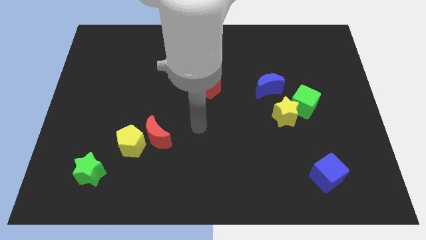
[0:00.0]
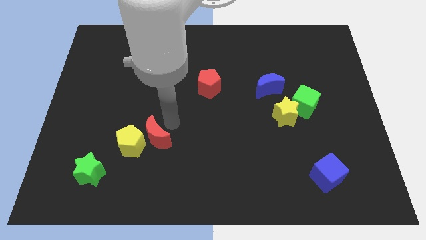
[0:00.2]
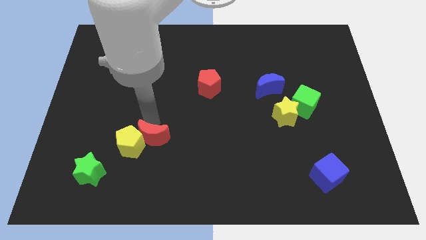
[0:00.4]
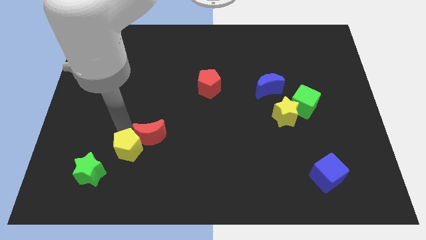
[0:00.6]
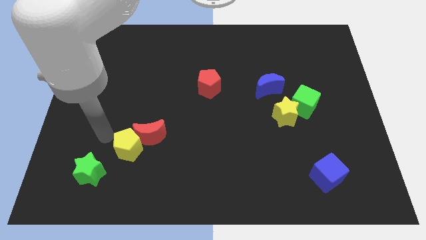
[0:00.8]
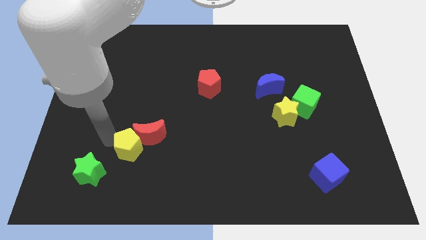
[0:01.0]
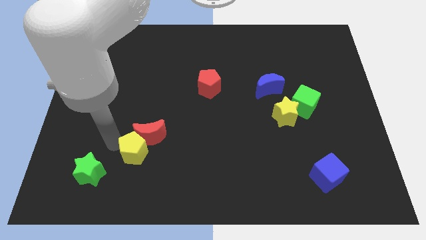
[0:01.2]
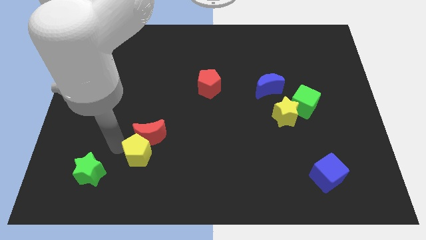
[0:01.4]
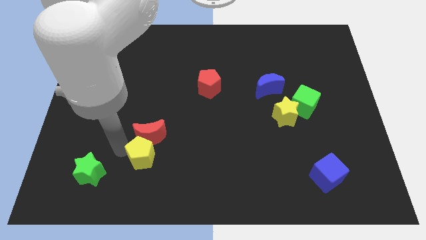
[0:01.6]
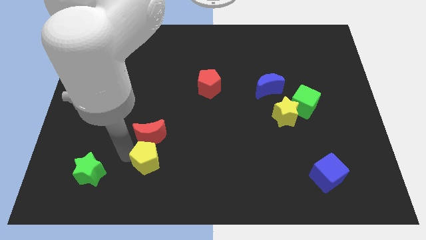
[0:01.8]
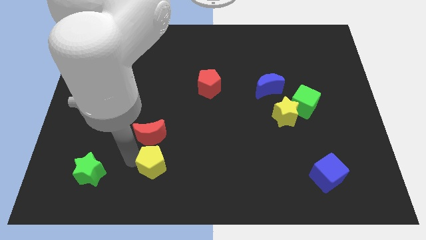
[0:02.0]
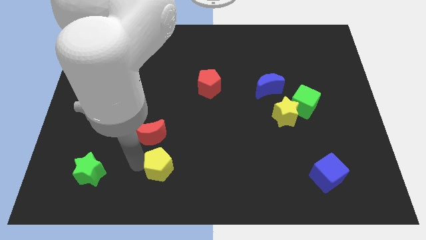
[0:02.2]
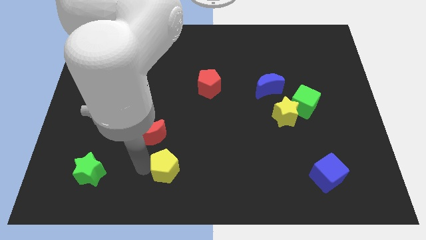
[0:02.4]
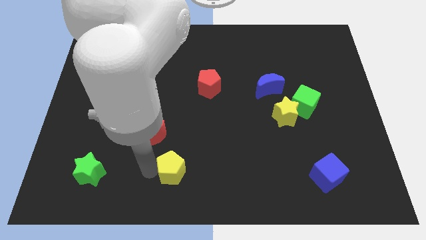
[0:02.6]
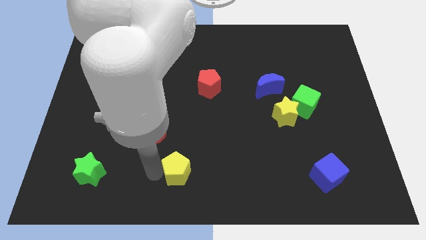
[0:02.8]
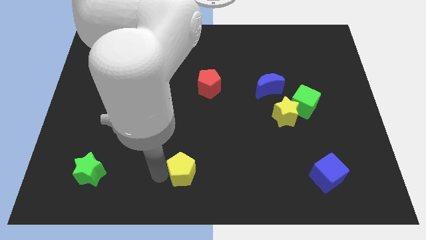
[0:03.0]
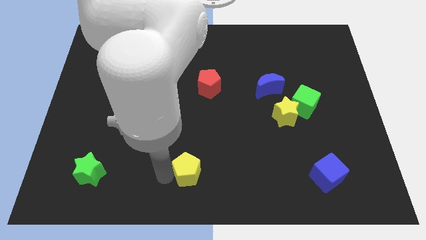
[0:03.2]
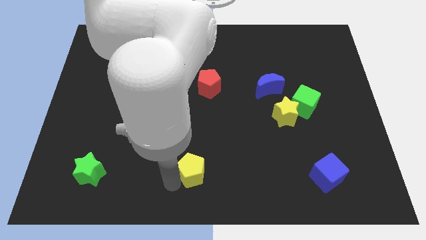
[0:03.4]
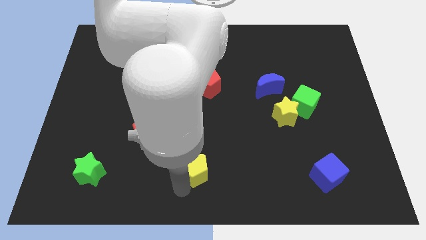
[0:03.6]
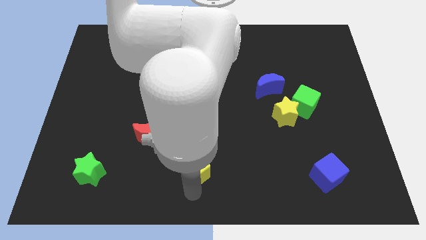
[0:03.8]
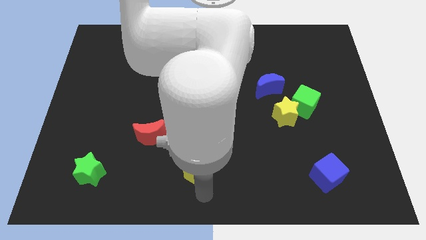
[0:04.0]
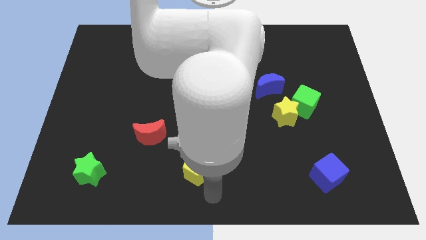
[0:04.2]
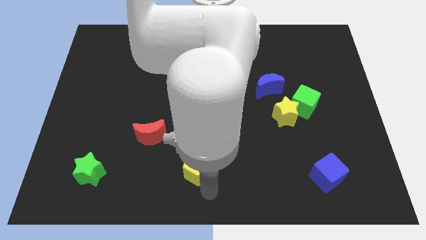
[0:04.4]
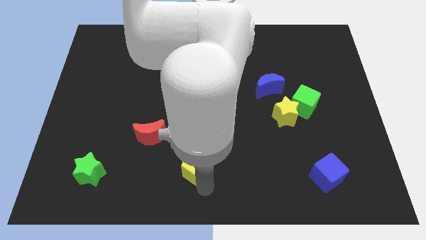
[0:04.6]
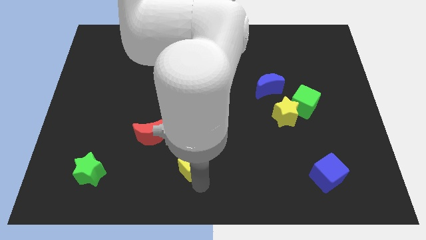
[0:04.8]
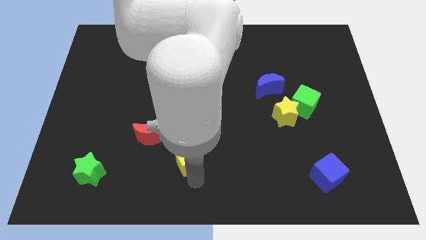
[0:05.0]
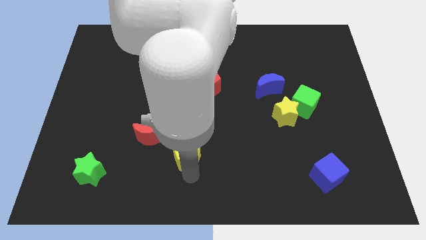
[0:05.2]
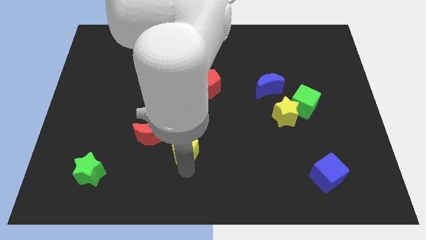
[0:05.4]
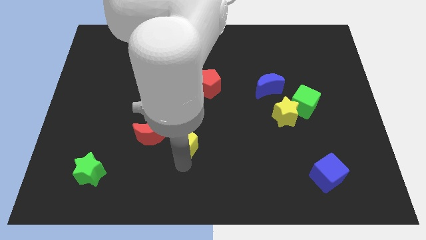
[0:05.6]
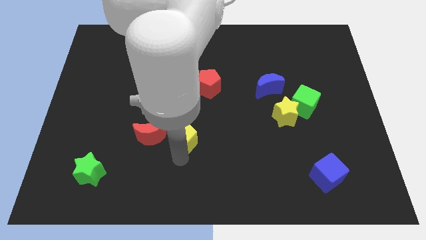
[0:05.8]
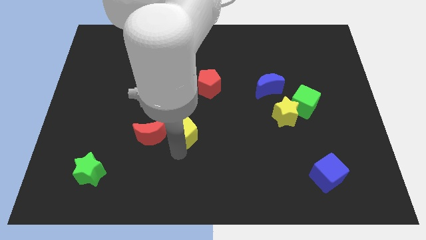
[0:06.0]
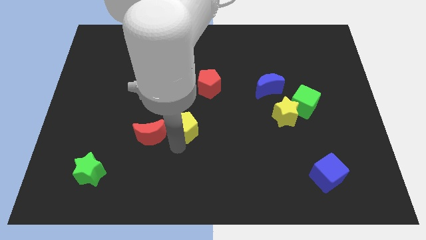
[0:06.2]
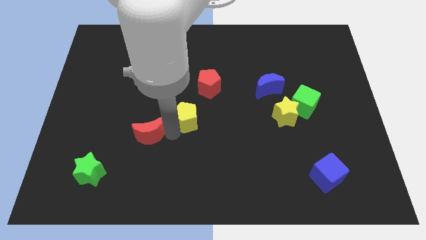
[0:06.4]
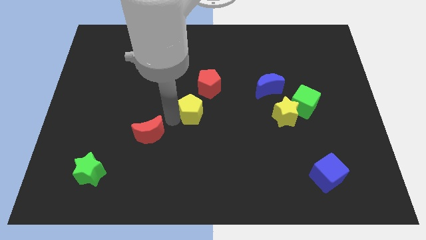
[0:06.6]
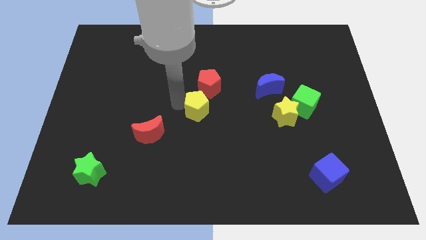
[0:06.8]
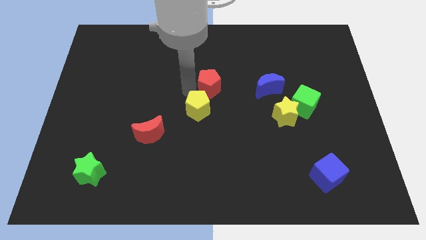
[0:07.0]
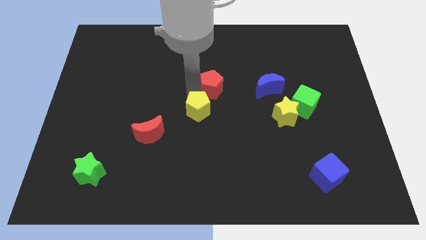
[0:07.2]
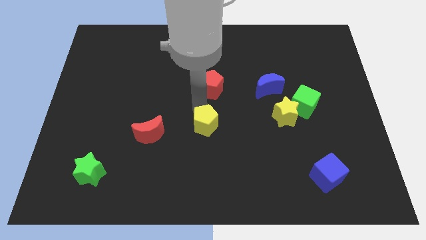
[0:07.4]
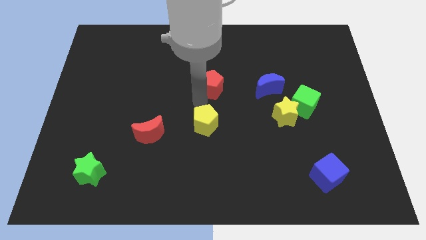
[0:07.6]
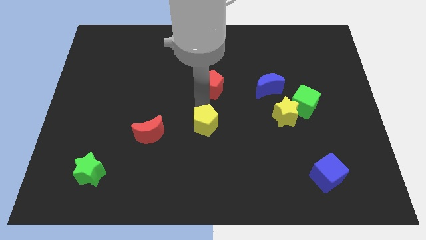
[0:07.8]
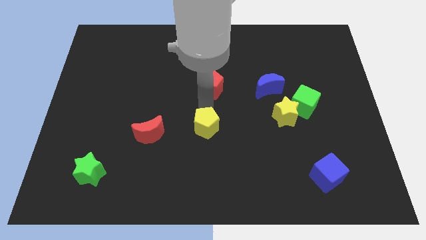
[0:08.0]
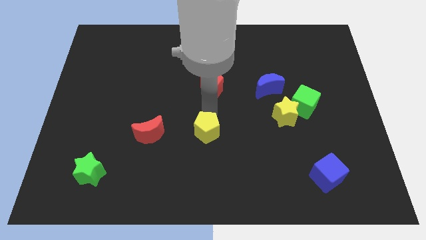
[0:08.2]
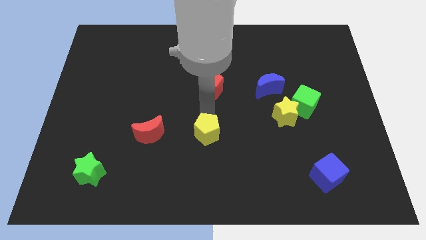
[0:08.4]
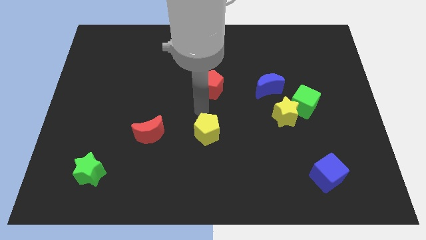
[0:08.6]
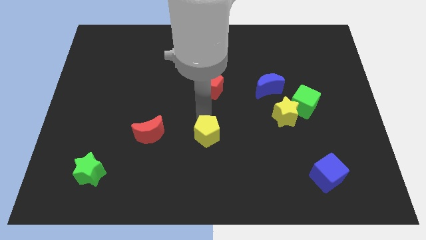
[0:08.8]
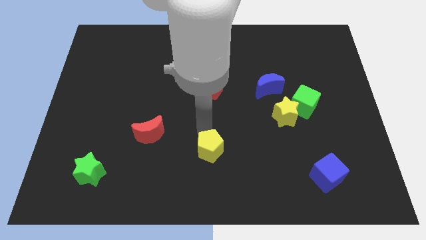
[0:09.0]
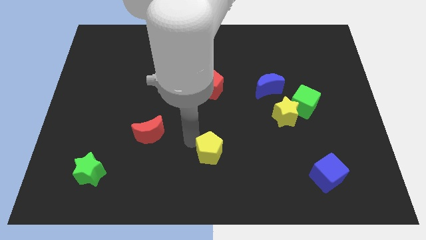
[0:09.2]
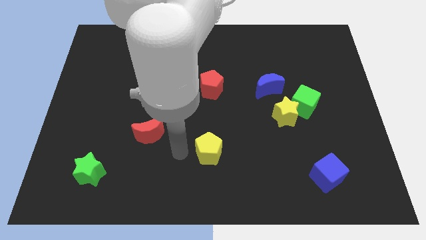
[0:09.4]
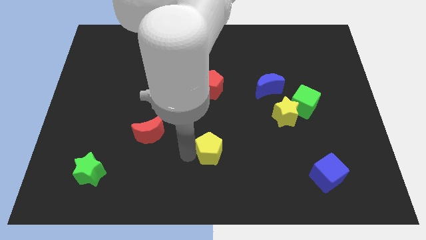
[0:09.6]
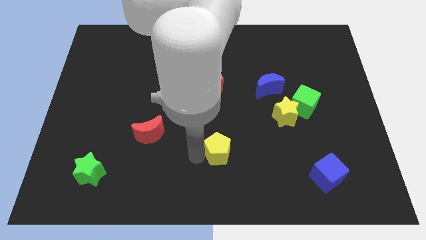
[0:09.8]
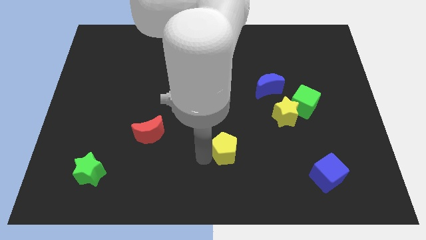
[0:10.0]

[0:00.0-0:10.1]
push the yellow pentagon right

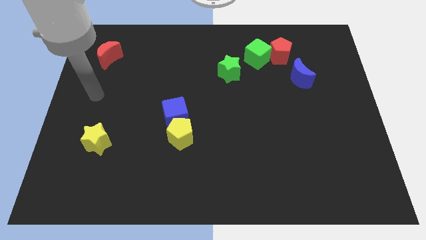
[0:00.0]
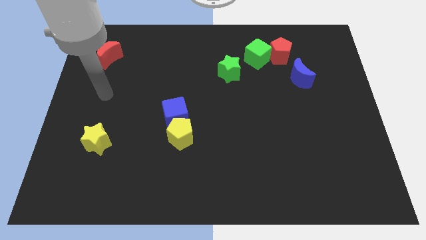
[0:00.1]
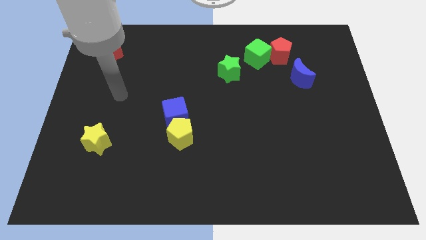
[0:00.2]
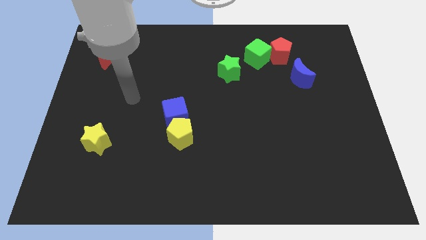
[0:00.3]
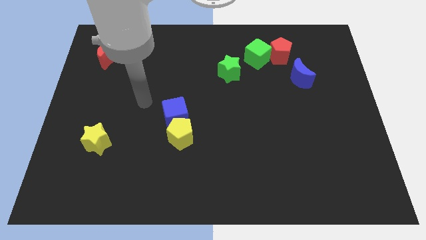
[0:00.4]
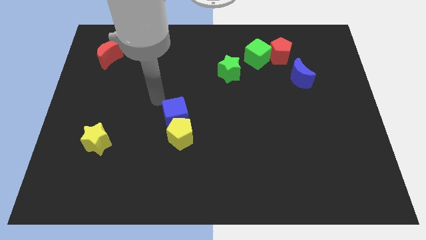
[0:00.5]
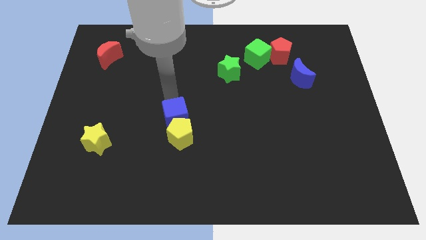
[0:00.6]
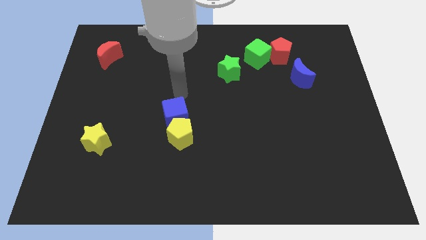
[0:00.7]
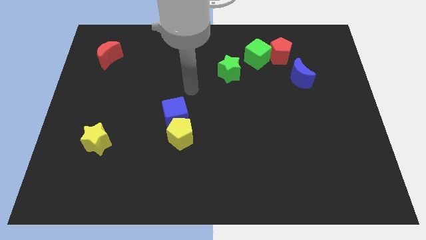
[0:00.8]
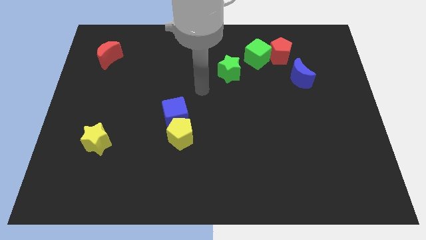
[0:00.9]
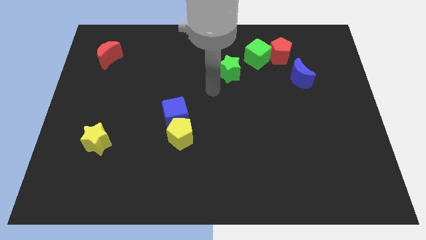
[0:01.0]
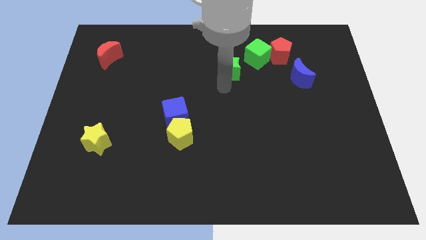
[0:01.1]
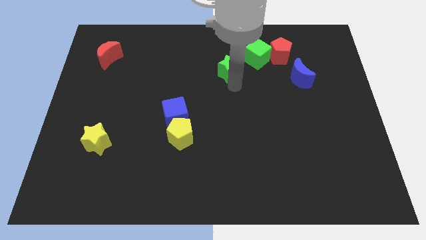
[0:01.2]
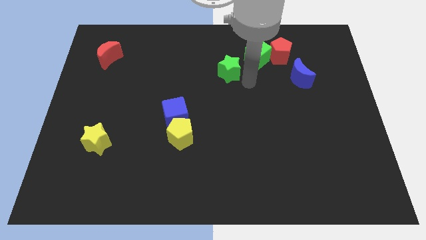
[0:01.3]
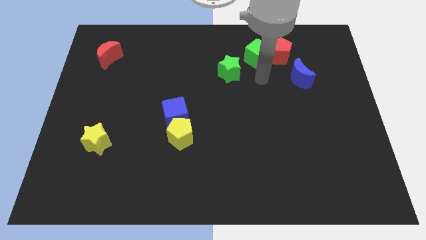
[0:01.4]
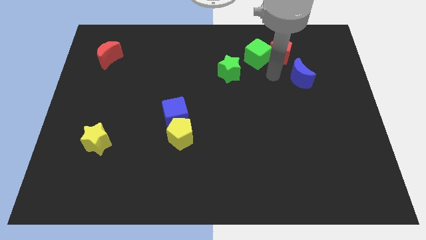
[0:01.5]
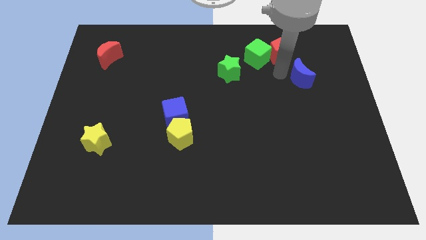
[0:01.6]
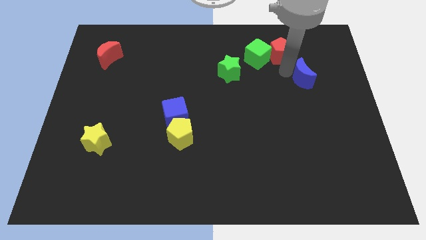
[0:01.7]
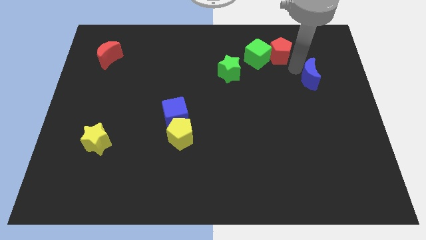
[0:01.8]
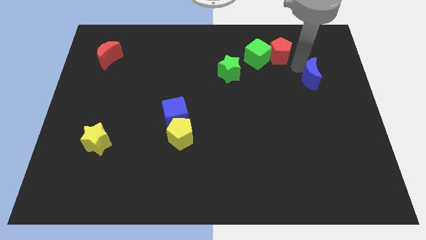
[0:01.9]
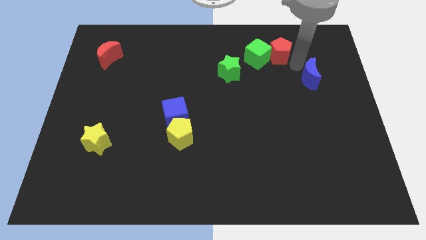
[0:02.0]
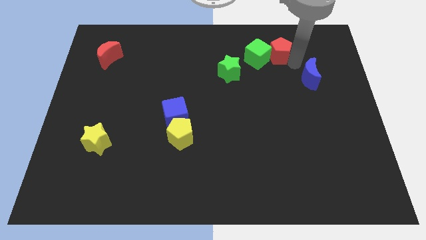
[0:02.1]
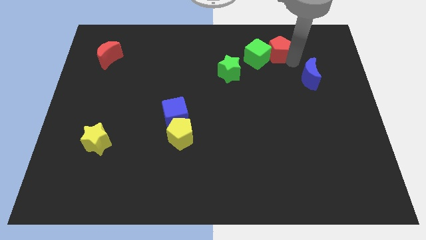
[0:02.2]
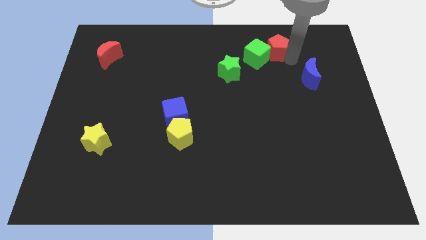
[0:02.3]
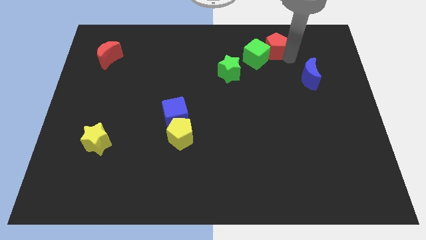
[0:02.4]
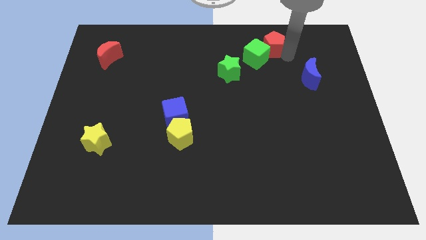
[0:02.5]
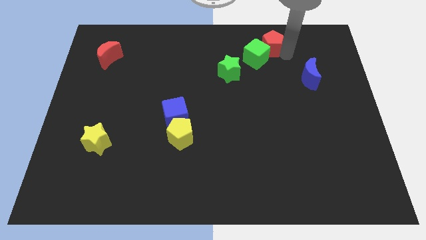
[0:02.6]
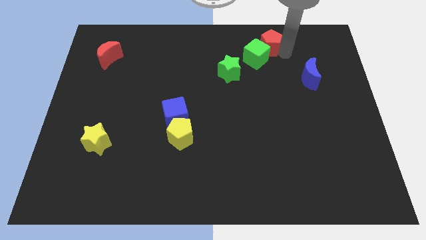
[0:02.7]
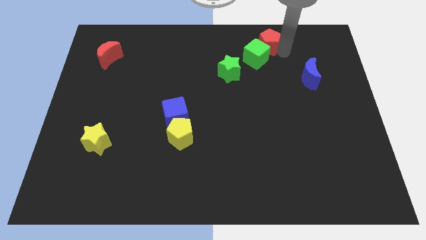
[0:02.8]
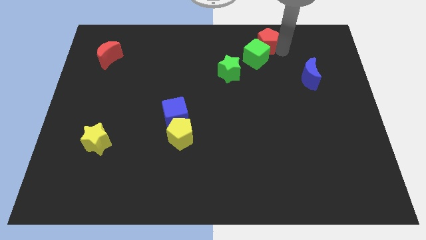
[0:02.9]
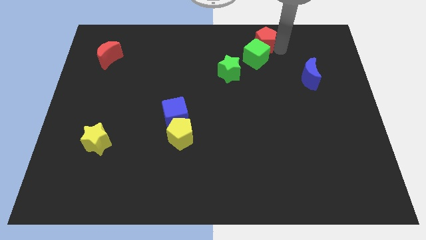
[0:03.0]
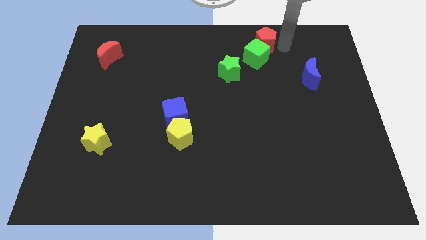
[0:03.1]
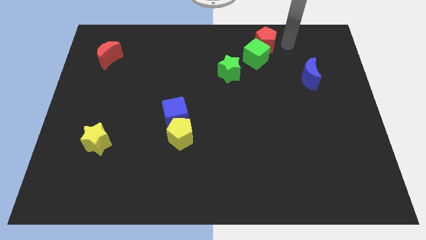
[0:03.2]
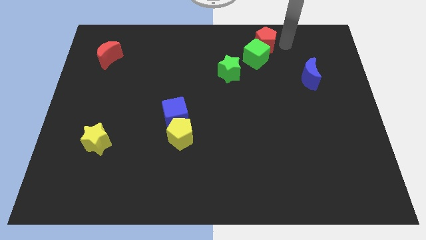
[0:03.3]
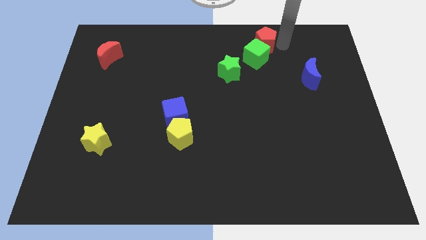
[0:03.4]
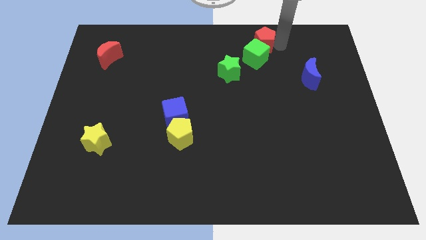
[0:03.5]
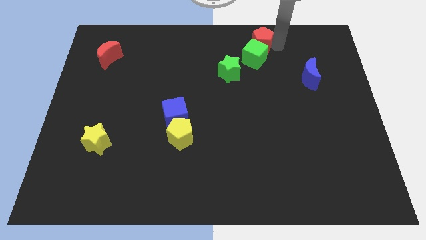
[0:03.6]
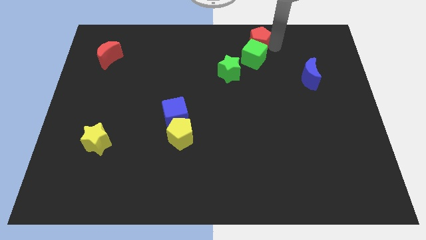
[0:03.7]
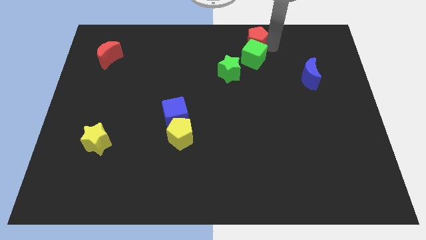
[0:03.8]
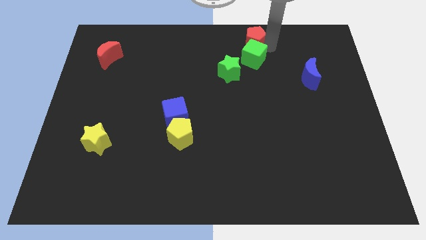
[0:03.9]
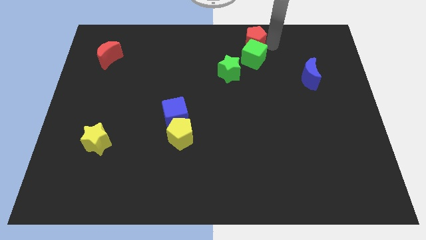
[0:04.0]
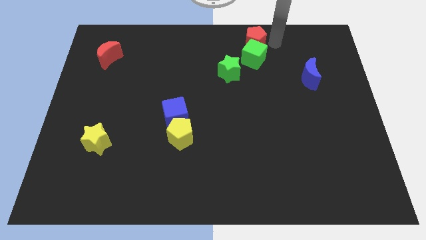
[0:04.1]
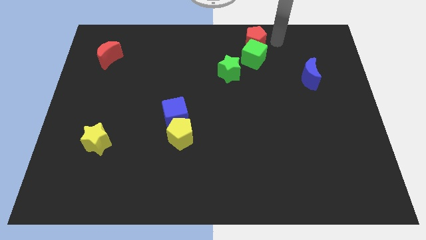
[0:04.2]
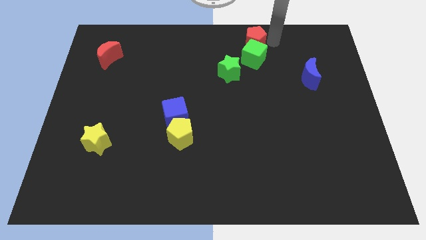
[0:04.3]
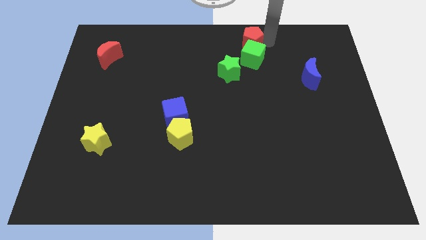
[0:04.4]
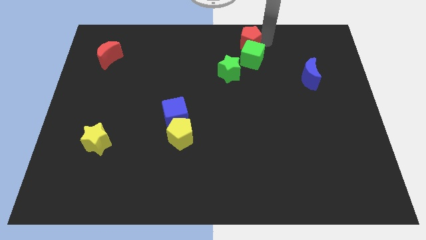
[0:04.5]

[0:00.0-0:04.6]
slide the red pentagon left a little
